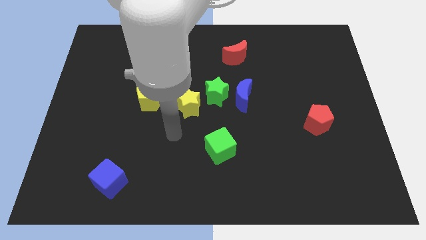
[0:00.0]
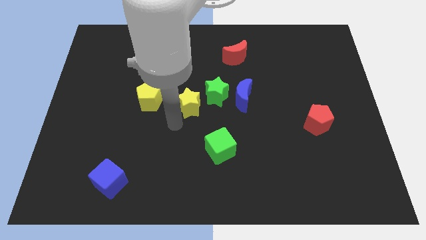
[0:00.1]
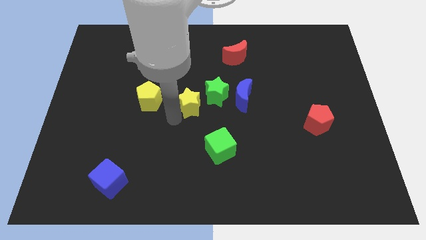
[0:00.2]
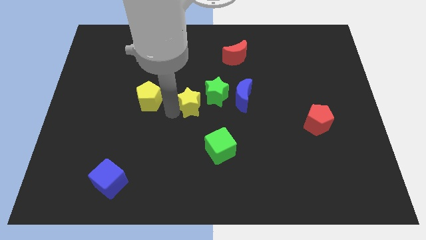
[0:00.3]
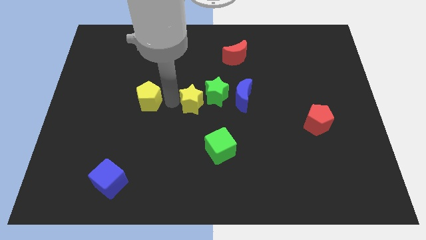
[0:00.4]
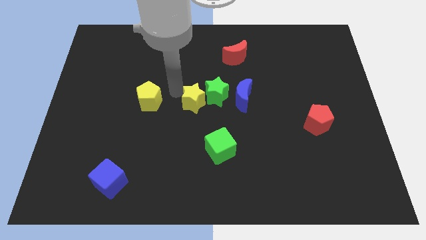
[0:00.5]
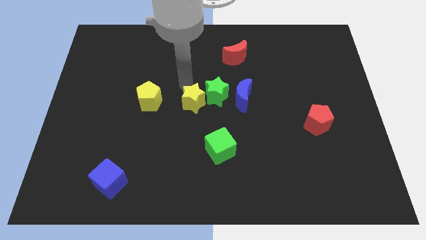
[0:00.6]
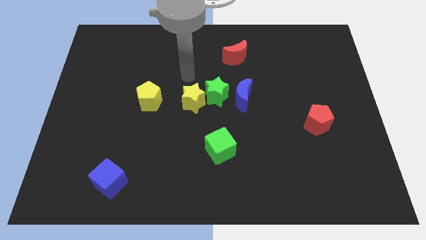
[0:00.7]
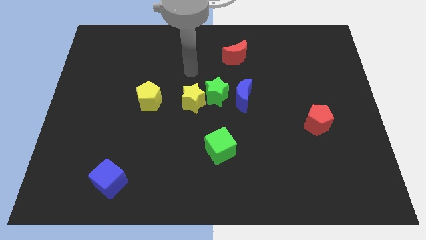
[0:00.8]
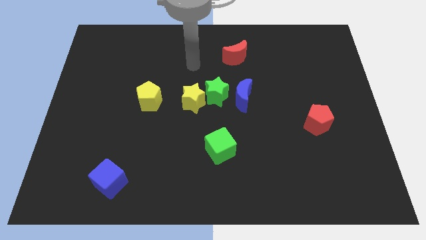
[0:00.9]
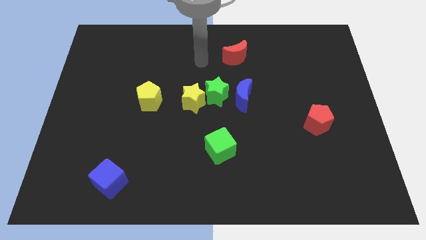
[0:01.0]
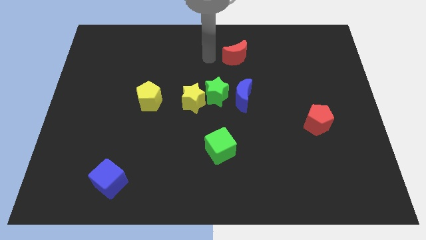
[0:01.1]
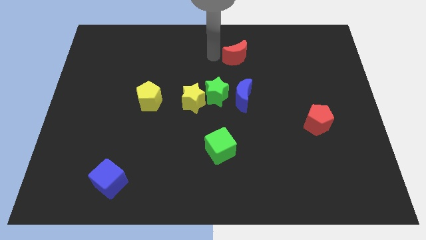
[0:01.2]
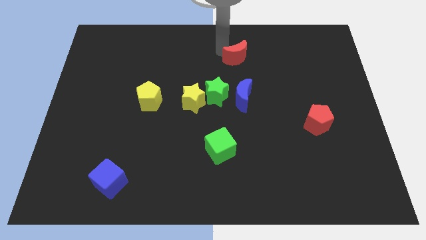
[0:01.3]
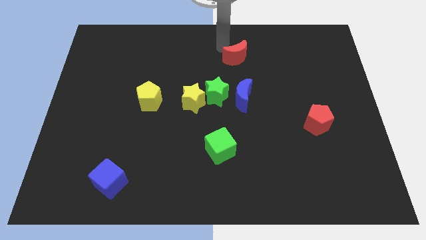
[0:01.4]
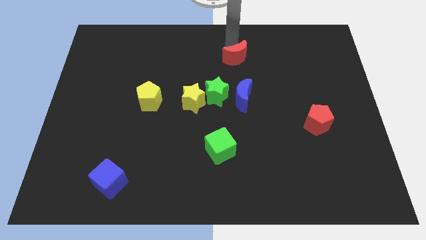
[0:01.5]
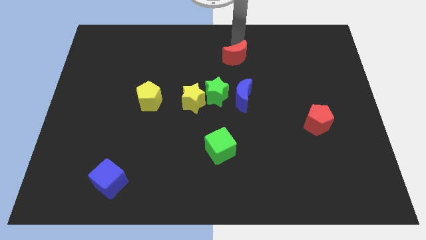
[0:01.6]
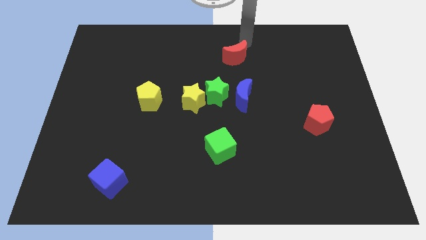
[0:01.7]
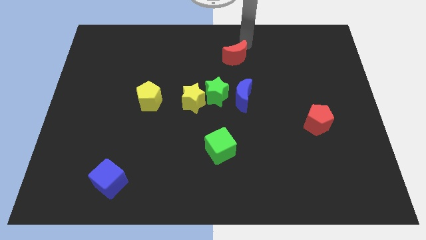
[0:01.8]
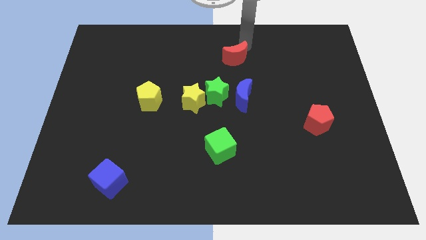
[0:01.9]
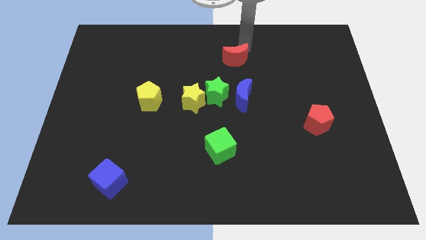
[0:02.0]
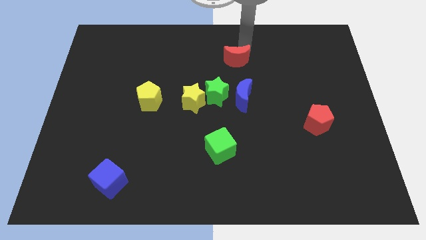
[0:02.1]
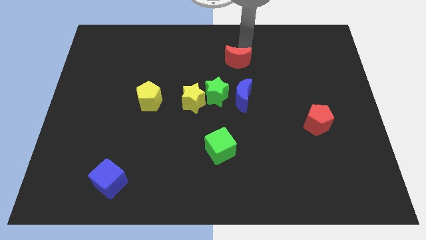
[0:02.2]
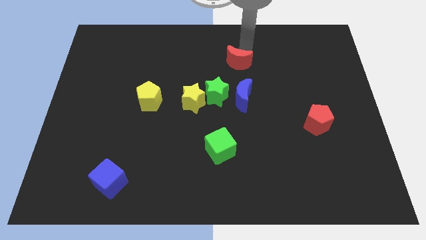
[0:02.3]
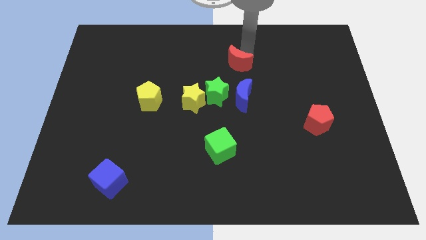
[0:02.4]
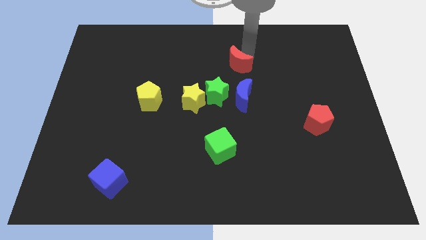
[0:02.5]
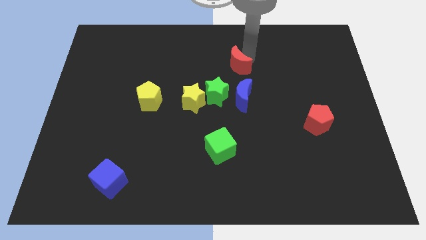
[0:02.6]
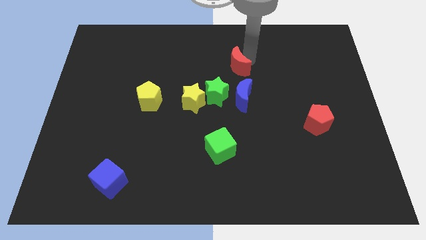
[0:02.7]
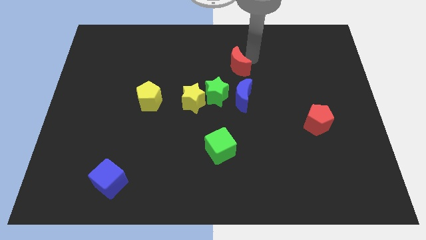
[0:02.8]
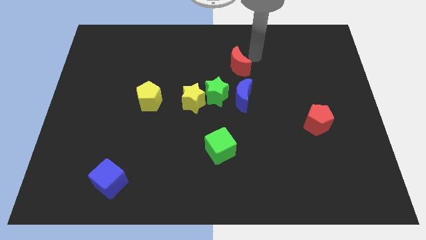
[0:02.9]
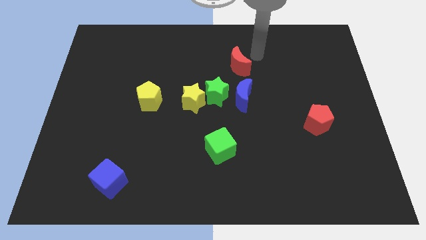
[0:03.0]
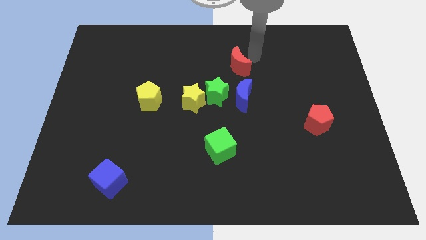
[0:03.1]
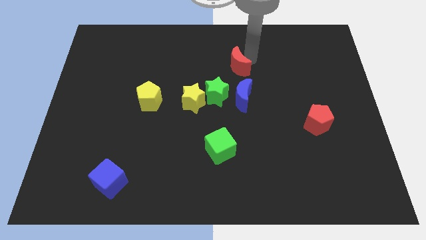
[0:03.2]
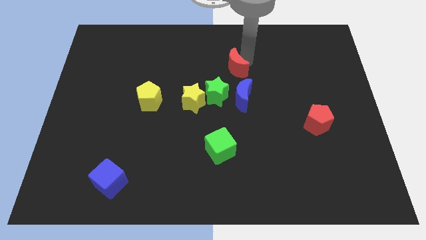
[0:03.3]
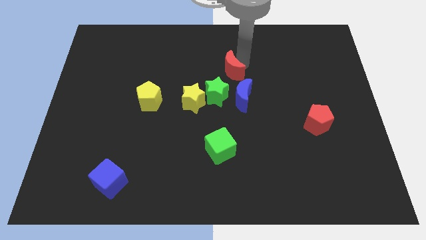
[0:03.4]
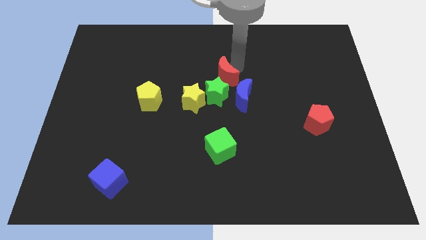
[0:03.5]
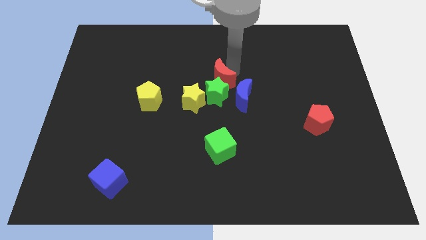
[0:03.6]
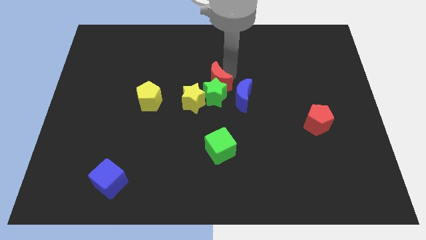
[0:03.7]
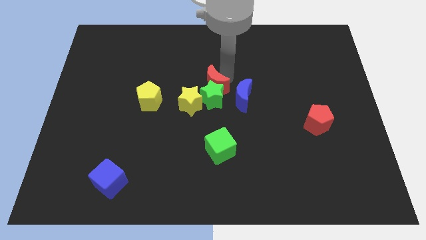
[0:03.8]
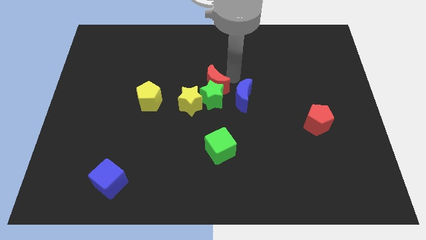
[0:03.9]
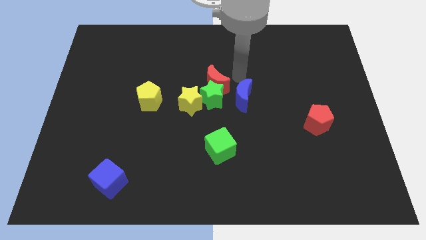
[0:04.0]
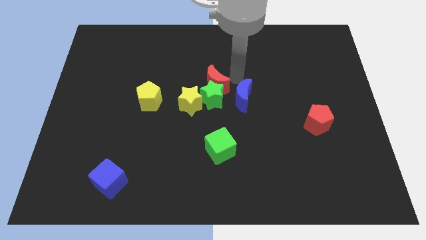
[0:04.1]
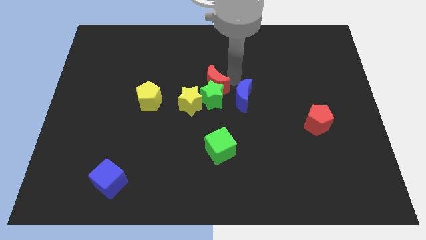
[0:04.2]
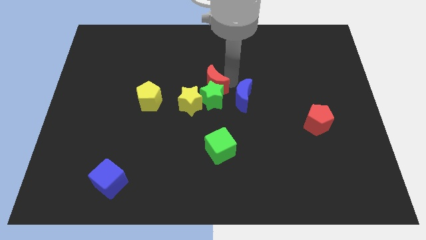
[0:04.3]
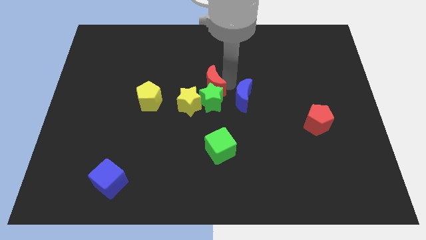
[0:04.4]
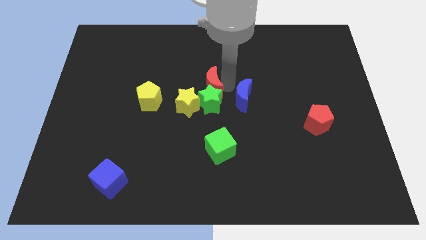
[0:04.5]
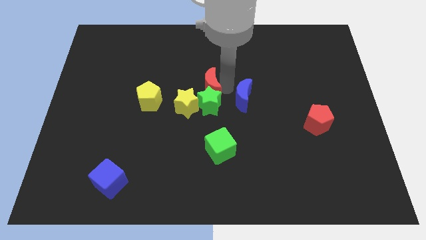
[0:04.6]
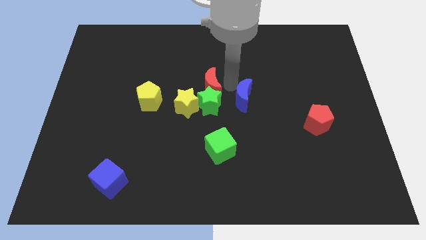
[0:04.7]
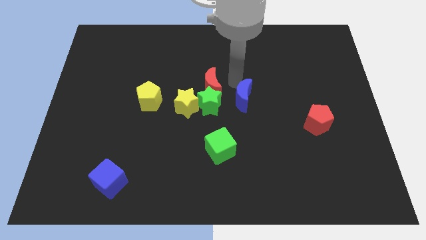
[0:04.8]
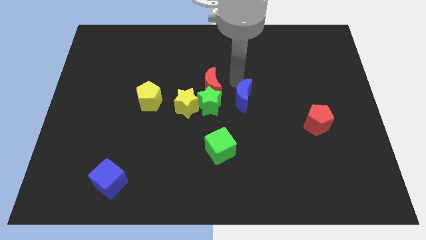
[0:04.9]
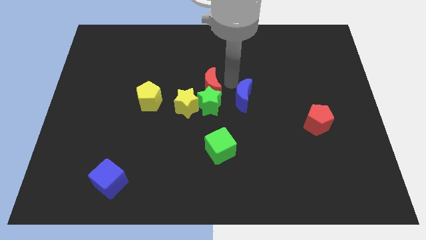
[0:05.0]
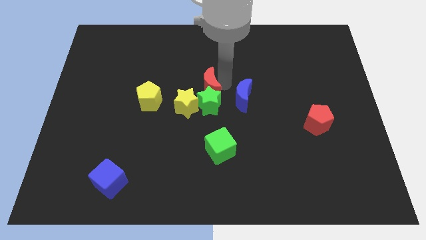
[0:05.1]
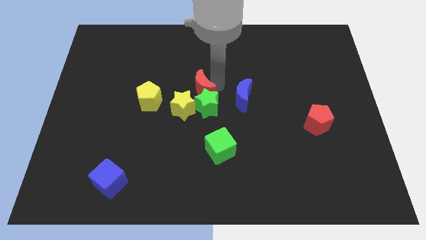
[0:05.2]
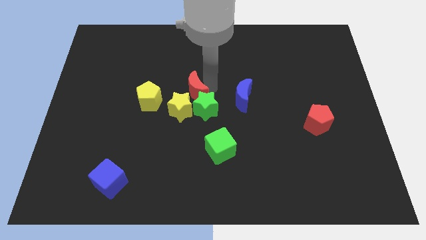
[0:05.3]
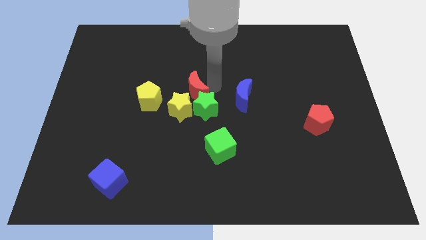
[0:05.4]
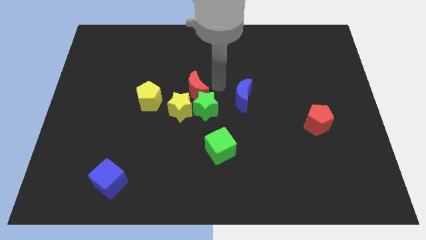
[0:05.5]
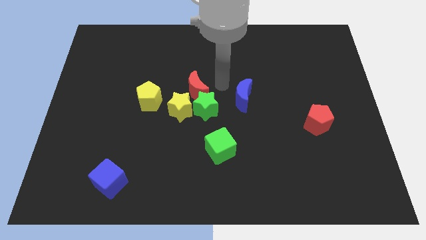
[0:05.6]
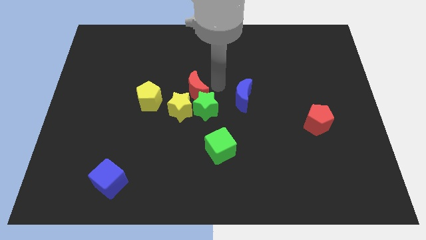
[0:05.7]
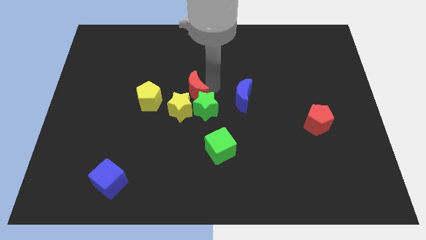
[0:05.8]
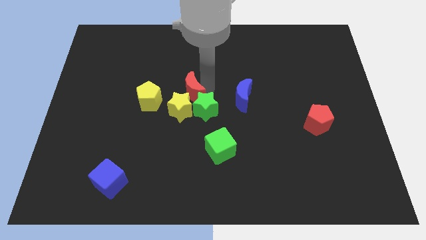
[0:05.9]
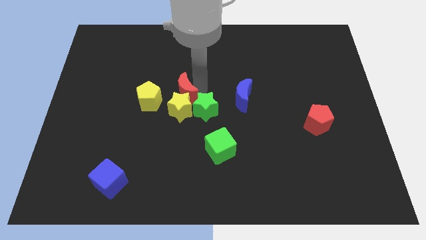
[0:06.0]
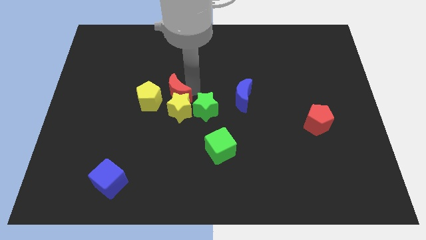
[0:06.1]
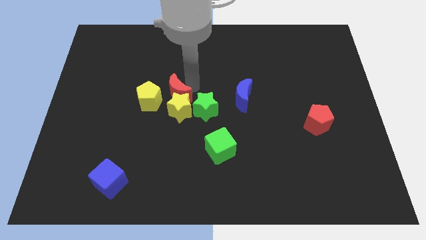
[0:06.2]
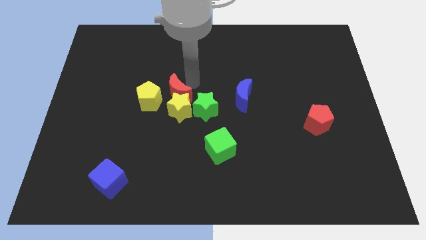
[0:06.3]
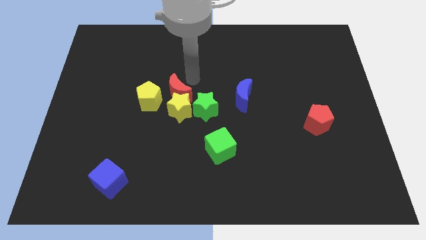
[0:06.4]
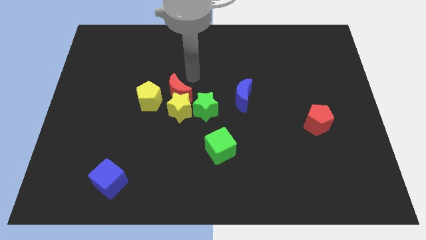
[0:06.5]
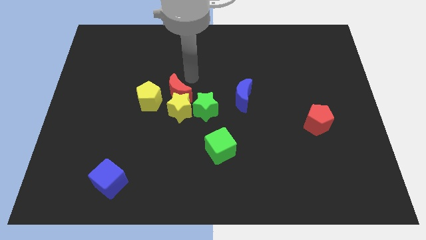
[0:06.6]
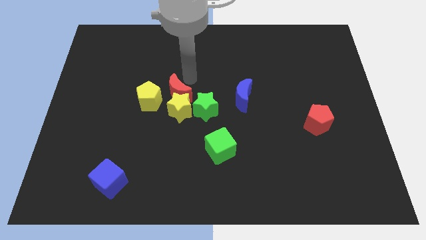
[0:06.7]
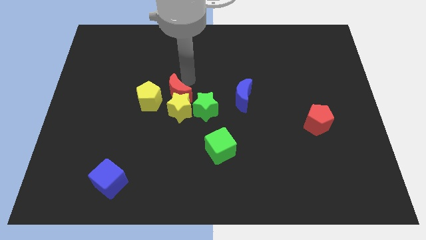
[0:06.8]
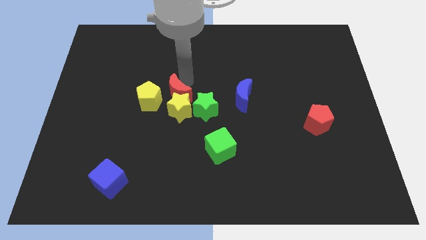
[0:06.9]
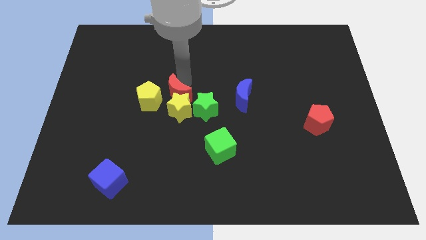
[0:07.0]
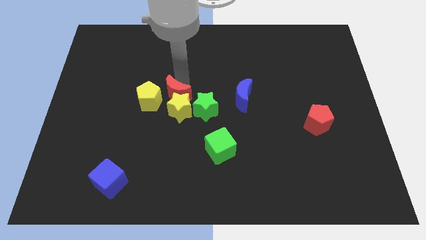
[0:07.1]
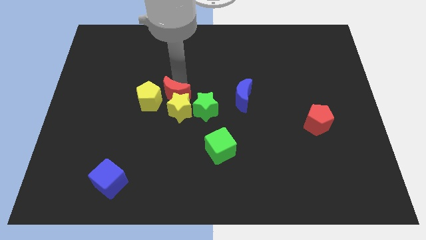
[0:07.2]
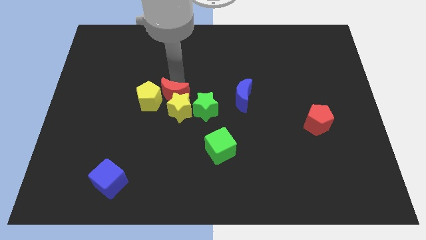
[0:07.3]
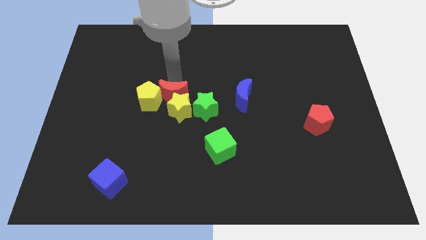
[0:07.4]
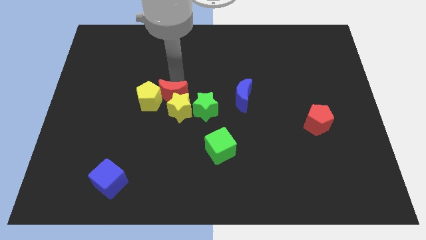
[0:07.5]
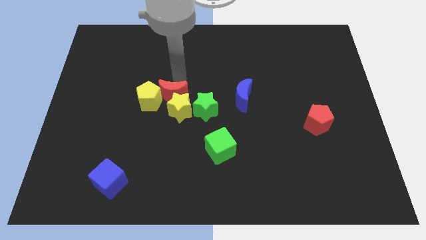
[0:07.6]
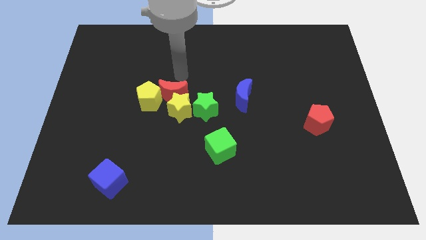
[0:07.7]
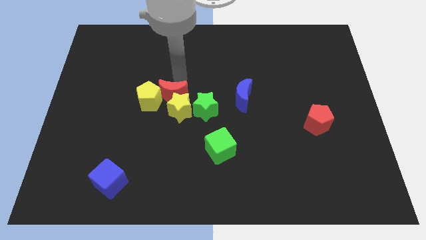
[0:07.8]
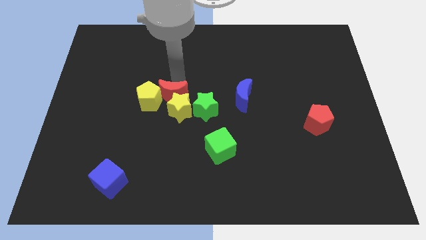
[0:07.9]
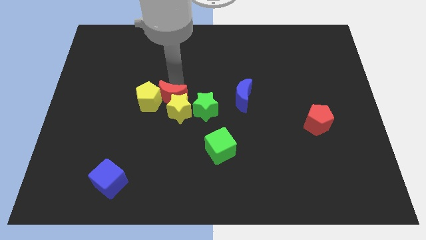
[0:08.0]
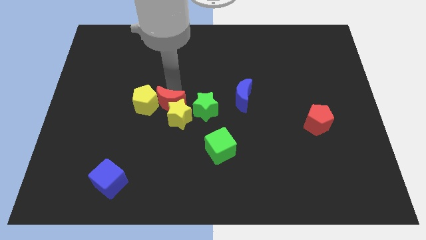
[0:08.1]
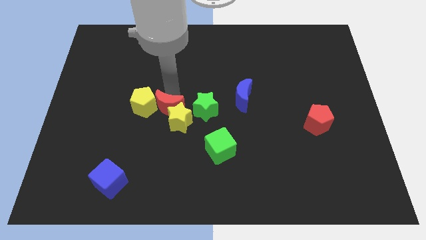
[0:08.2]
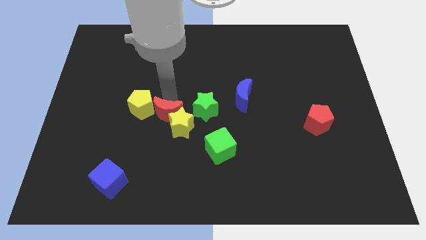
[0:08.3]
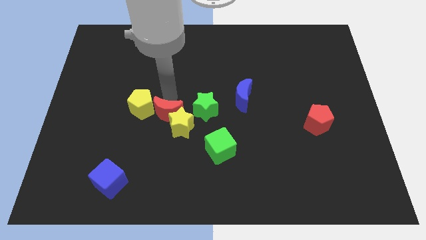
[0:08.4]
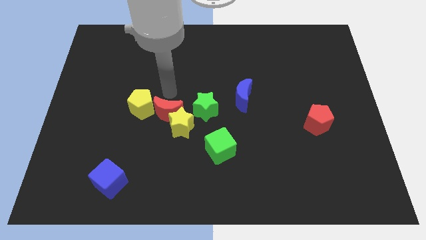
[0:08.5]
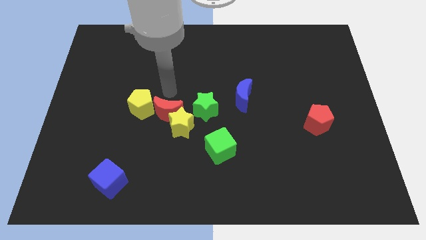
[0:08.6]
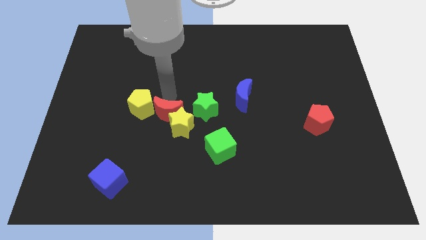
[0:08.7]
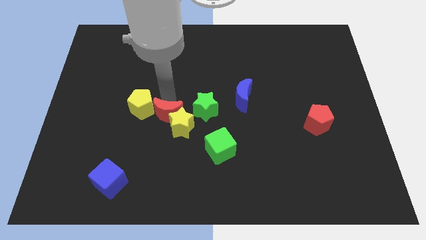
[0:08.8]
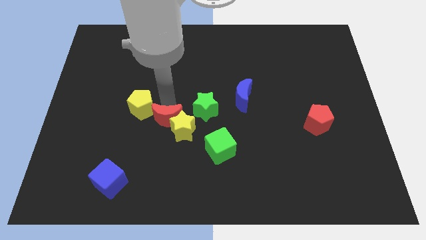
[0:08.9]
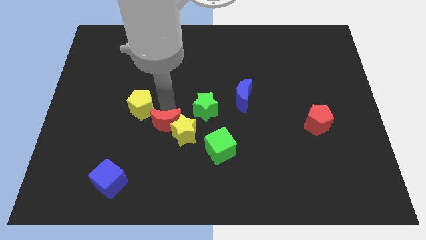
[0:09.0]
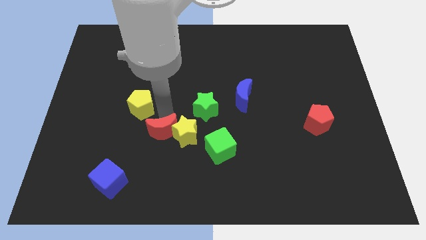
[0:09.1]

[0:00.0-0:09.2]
slide the red moon to the left side of the green cube
